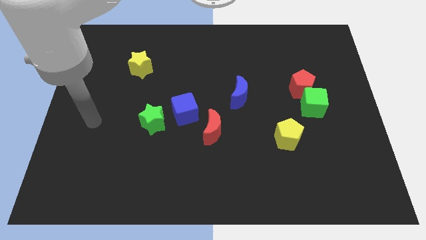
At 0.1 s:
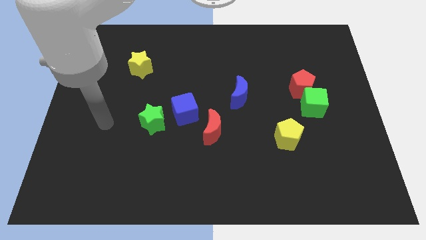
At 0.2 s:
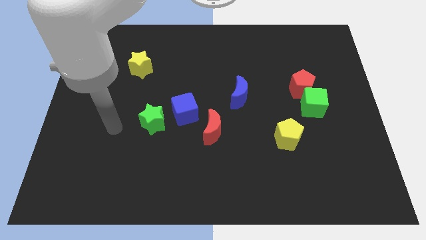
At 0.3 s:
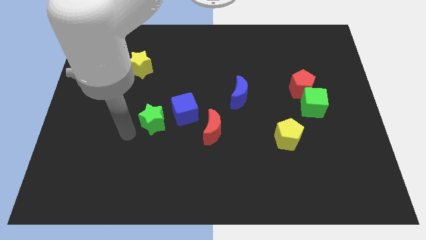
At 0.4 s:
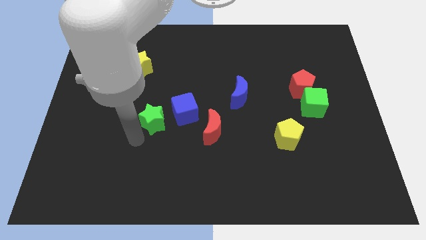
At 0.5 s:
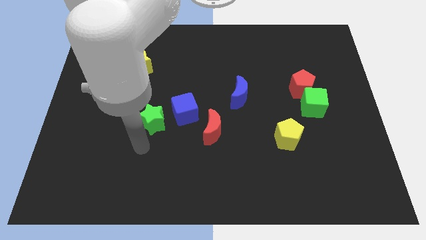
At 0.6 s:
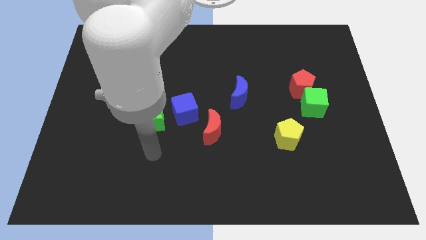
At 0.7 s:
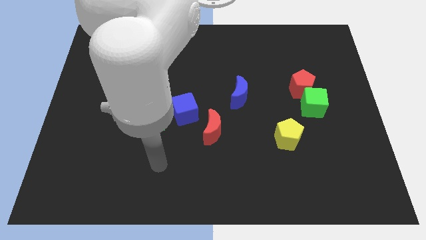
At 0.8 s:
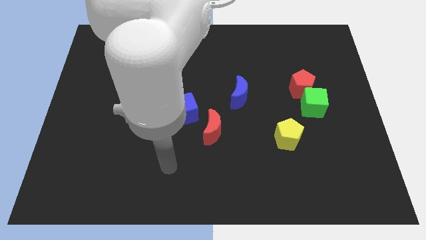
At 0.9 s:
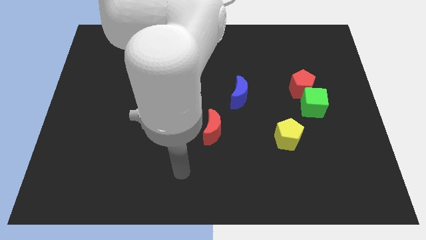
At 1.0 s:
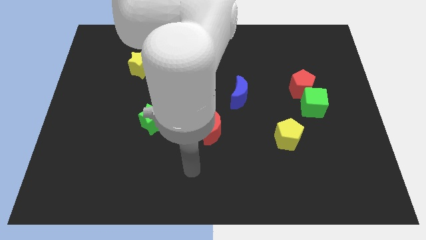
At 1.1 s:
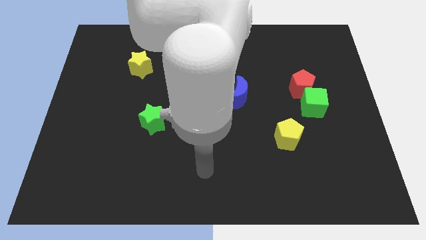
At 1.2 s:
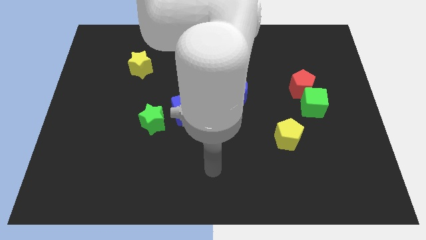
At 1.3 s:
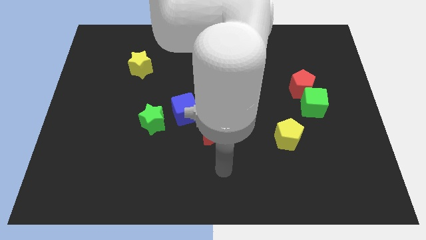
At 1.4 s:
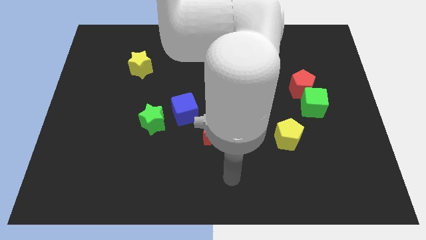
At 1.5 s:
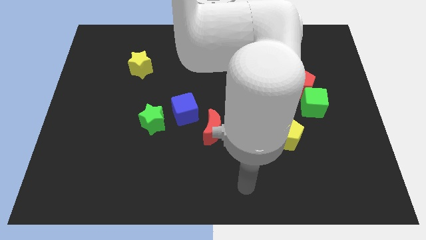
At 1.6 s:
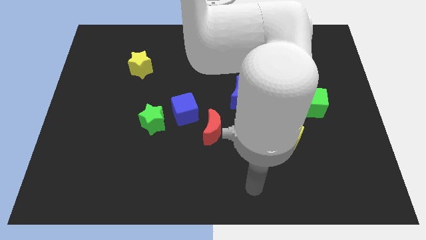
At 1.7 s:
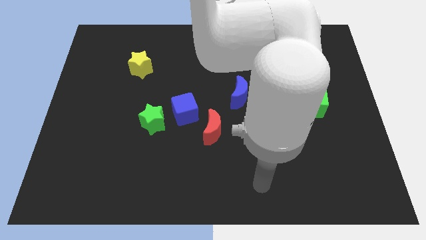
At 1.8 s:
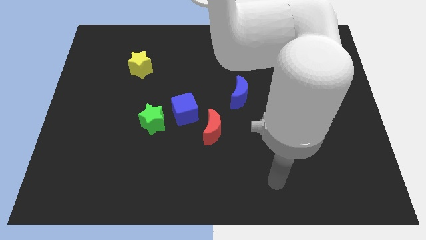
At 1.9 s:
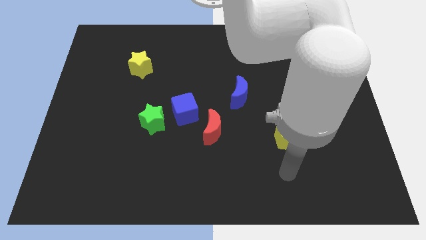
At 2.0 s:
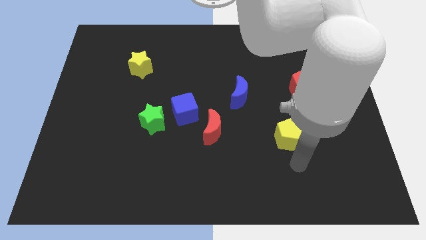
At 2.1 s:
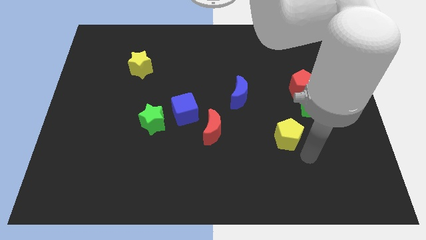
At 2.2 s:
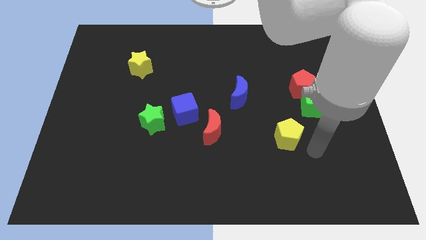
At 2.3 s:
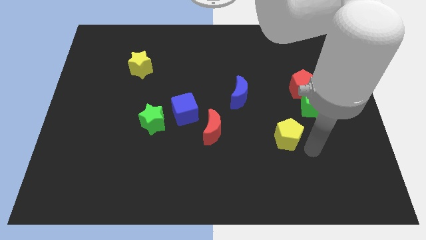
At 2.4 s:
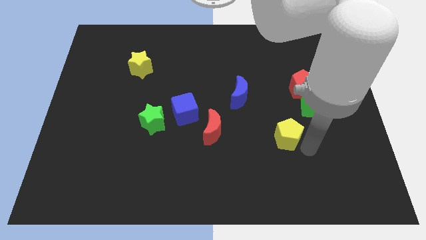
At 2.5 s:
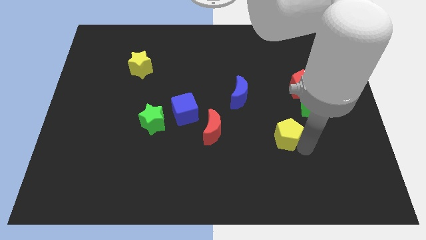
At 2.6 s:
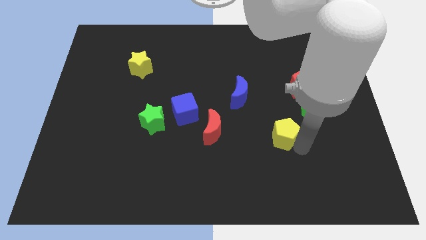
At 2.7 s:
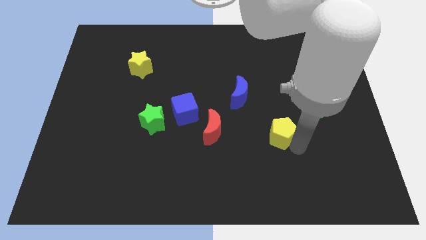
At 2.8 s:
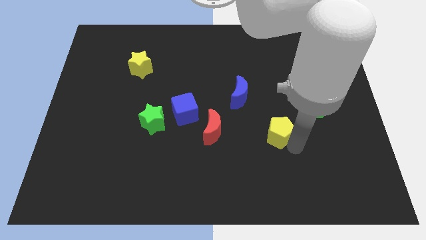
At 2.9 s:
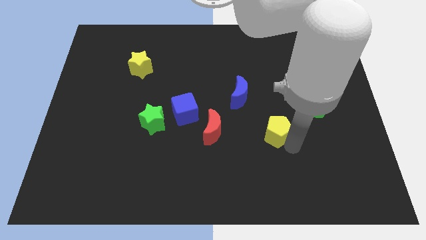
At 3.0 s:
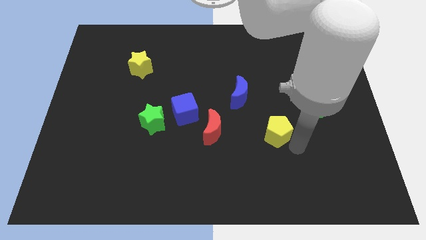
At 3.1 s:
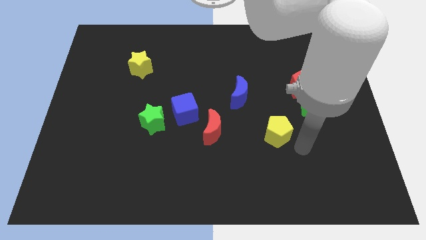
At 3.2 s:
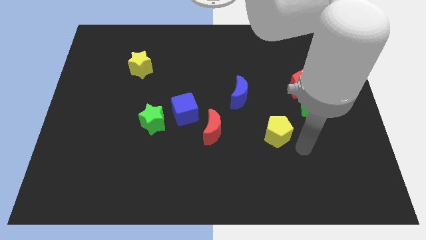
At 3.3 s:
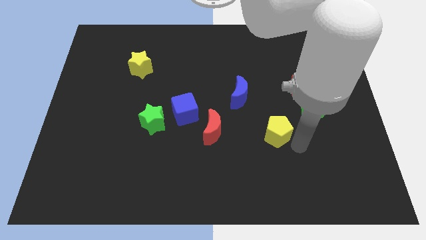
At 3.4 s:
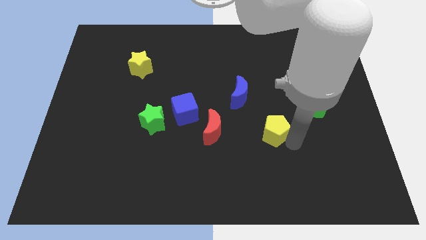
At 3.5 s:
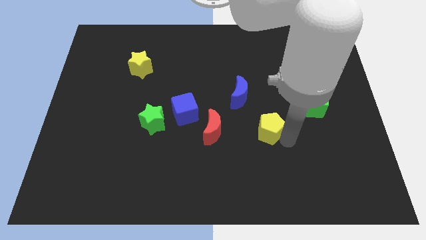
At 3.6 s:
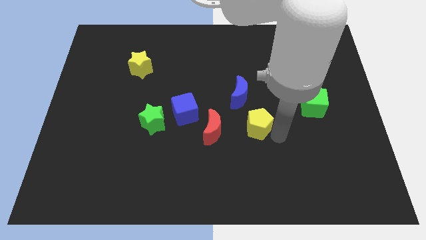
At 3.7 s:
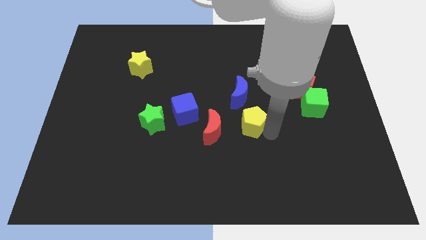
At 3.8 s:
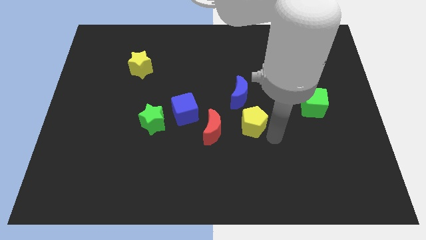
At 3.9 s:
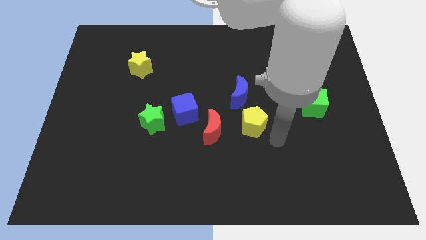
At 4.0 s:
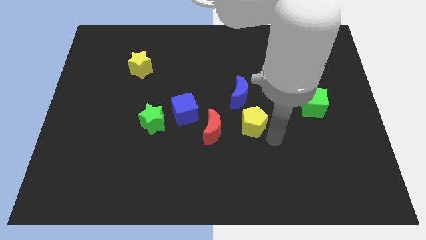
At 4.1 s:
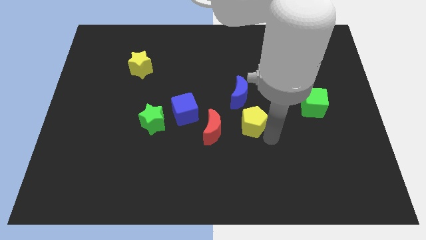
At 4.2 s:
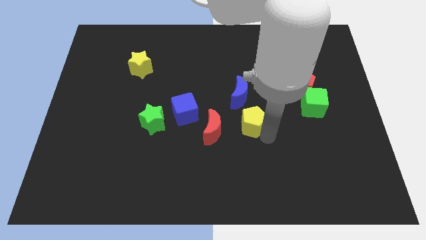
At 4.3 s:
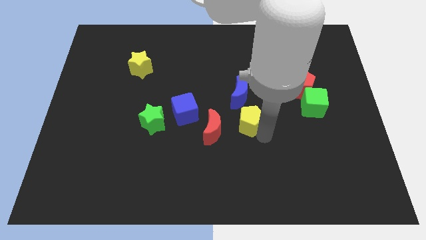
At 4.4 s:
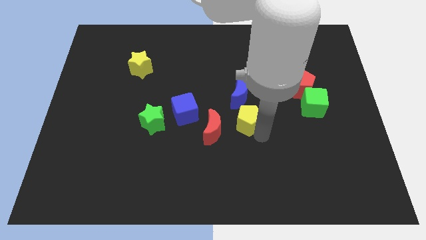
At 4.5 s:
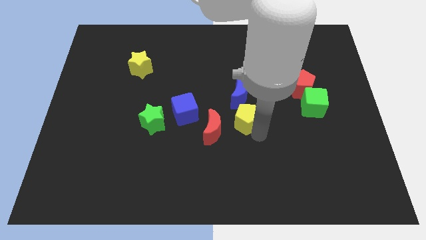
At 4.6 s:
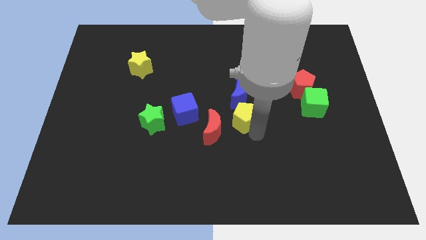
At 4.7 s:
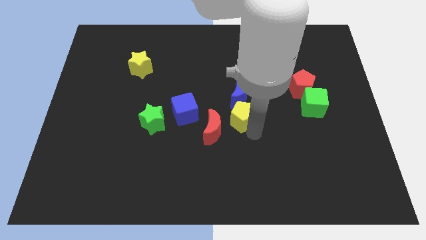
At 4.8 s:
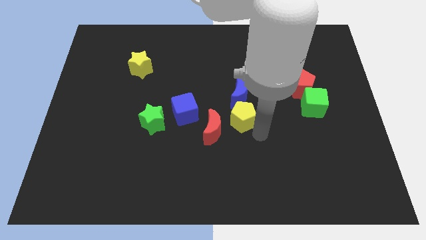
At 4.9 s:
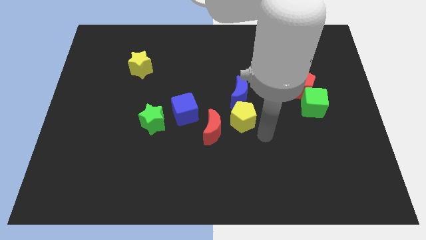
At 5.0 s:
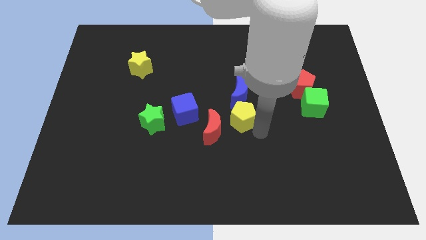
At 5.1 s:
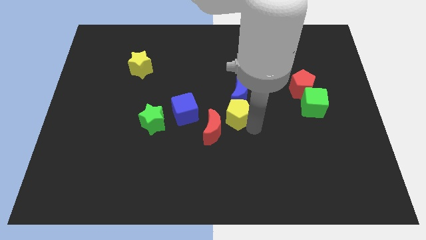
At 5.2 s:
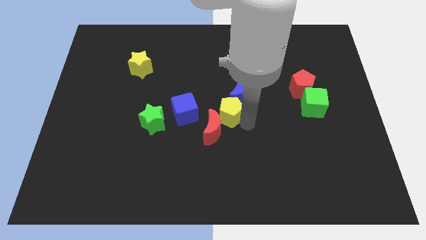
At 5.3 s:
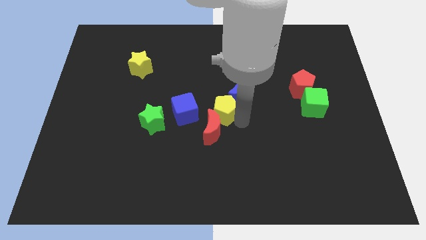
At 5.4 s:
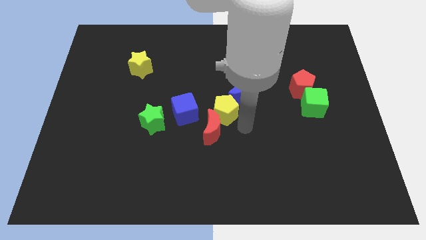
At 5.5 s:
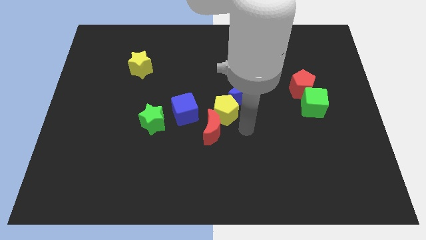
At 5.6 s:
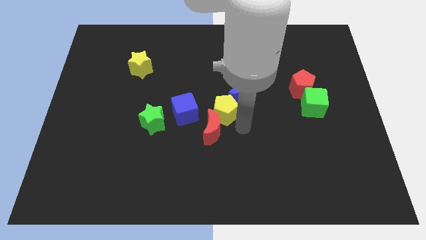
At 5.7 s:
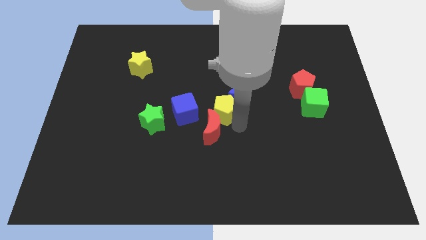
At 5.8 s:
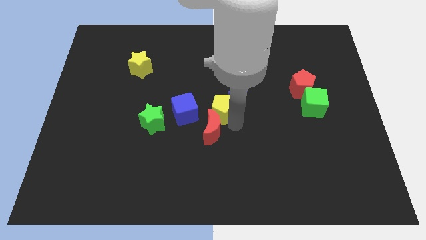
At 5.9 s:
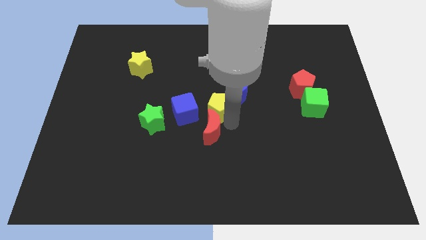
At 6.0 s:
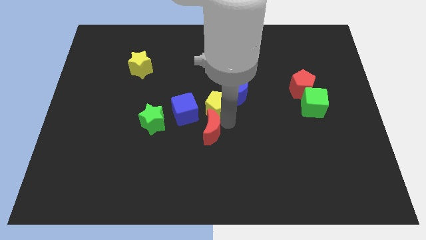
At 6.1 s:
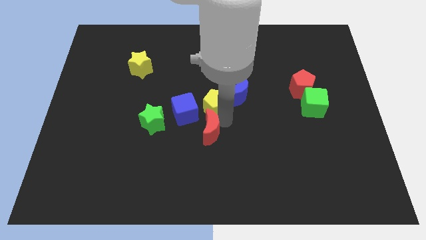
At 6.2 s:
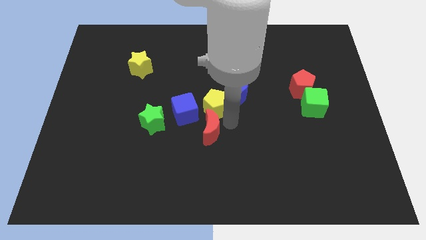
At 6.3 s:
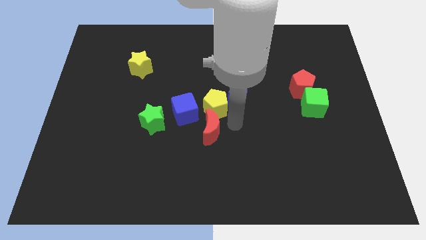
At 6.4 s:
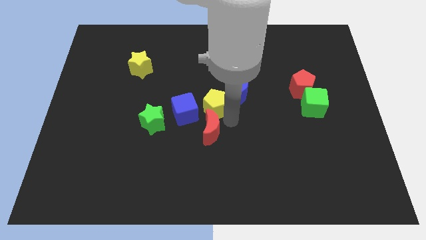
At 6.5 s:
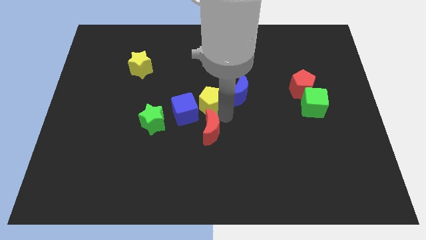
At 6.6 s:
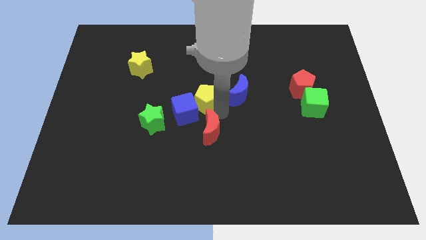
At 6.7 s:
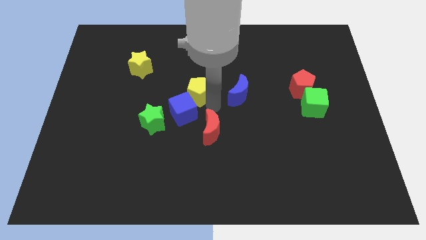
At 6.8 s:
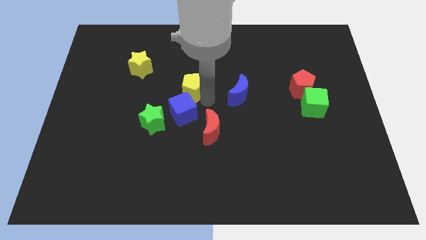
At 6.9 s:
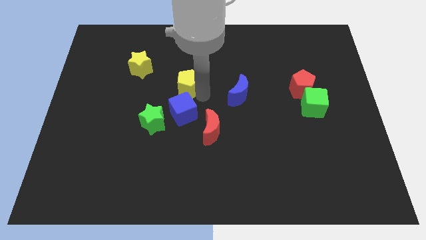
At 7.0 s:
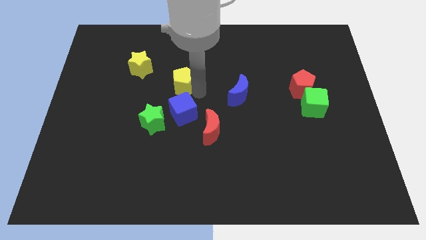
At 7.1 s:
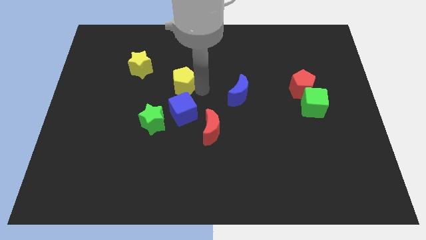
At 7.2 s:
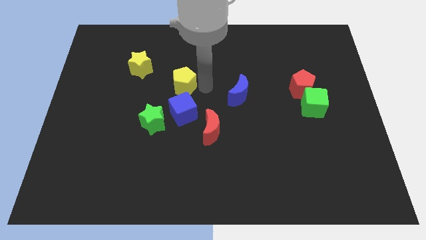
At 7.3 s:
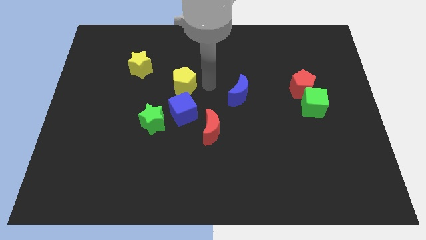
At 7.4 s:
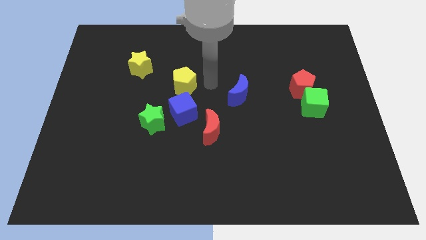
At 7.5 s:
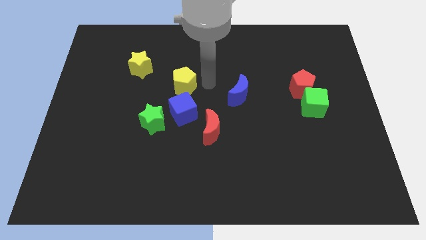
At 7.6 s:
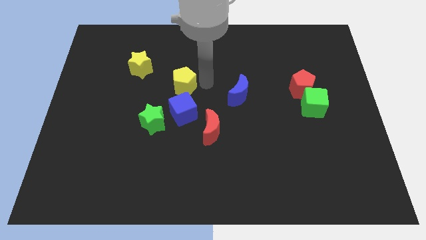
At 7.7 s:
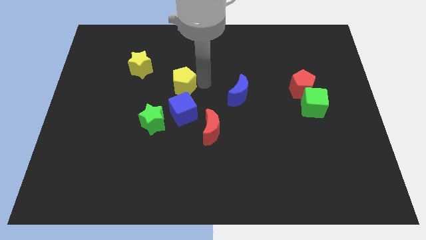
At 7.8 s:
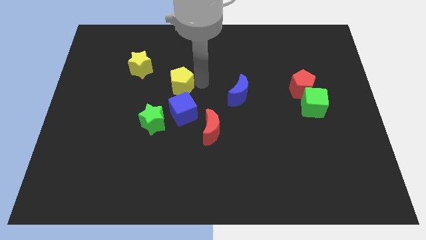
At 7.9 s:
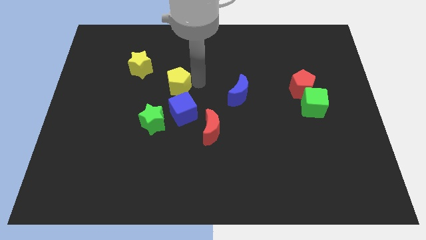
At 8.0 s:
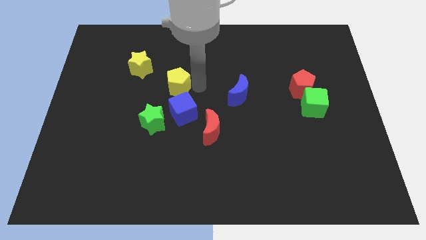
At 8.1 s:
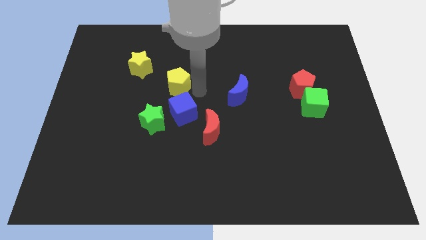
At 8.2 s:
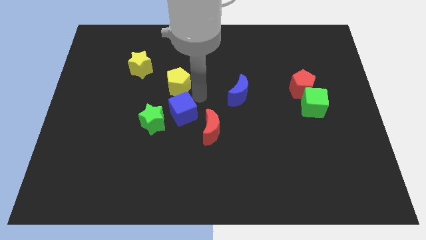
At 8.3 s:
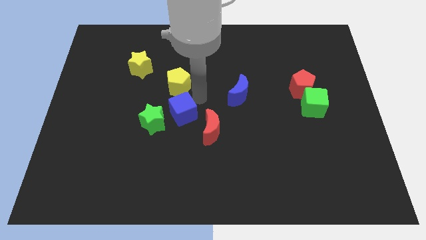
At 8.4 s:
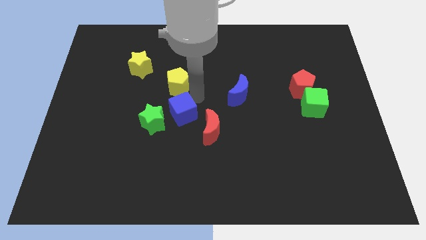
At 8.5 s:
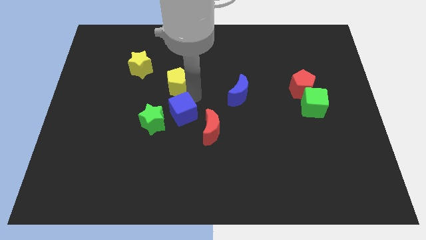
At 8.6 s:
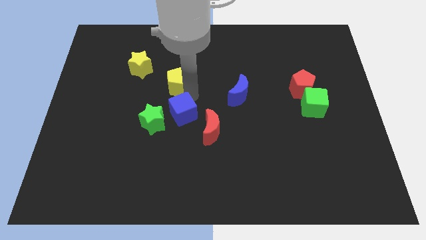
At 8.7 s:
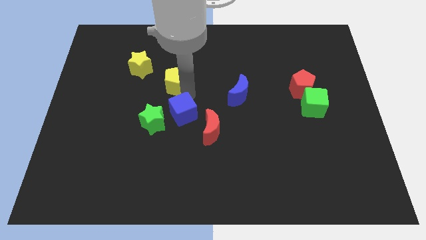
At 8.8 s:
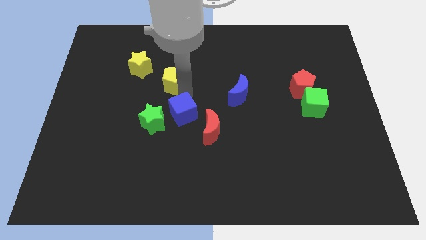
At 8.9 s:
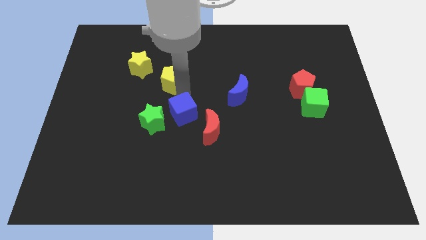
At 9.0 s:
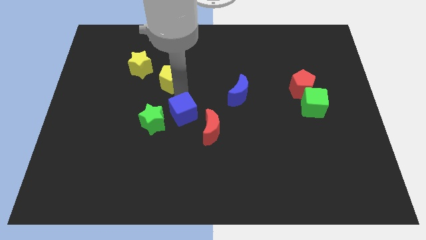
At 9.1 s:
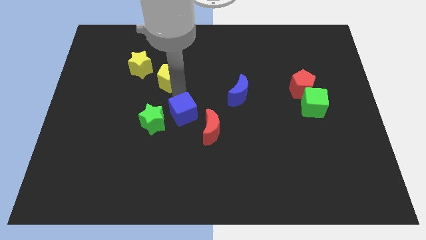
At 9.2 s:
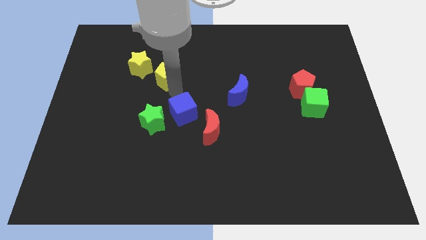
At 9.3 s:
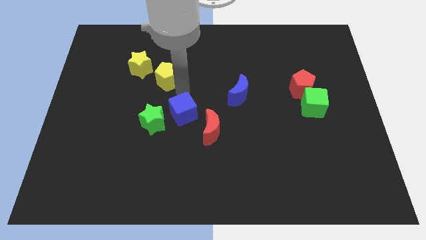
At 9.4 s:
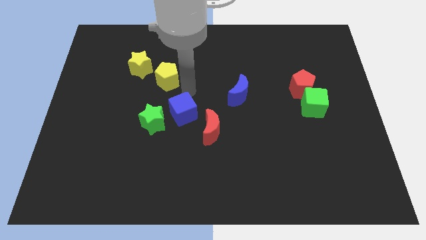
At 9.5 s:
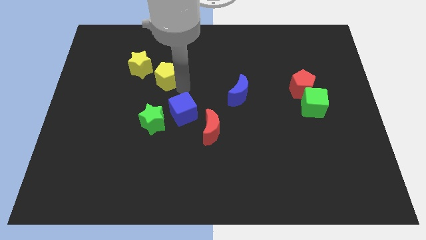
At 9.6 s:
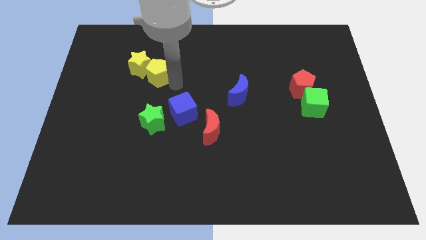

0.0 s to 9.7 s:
put the yellow pentagon to the yellow star
